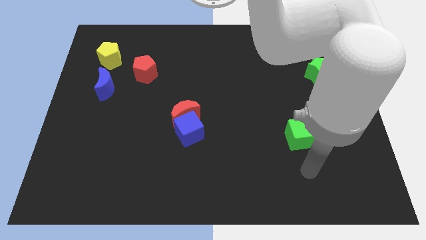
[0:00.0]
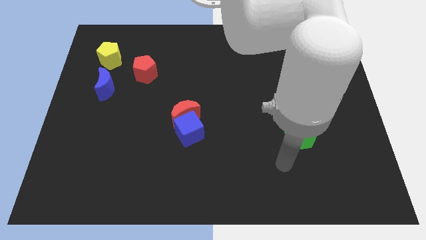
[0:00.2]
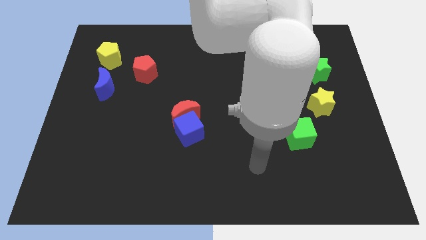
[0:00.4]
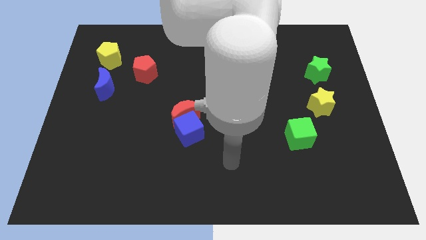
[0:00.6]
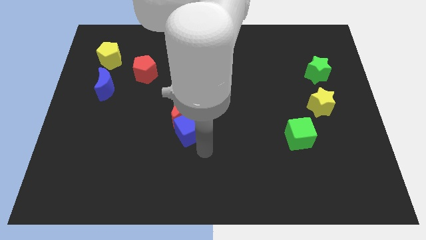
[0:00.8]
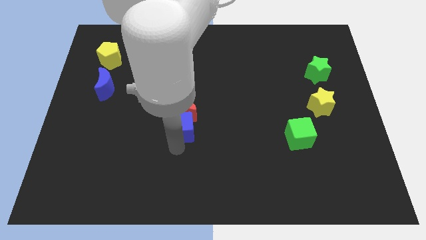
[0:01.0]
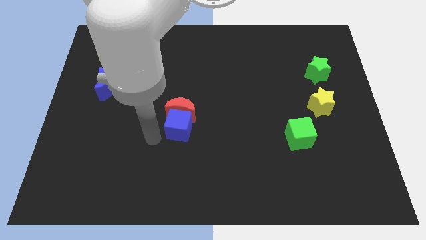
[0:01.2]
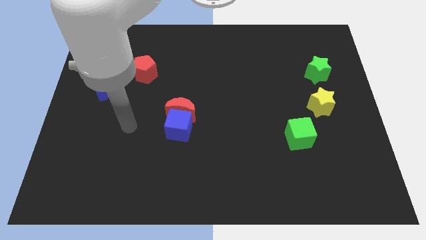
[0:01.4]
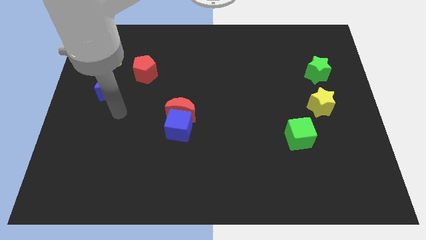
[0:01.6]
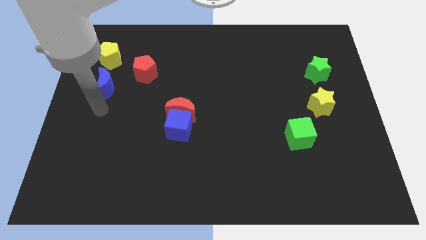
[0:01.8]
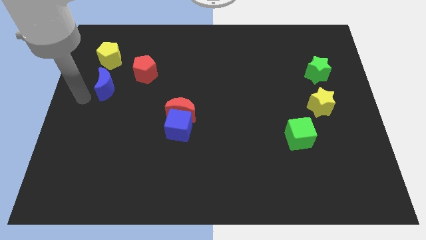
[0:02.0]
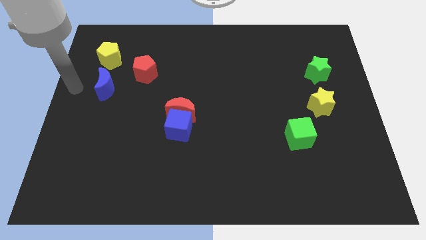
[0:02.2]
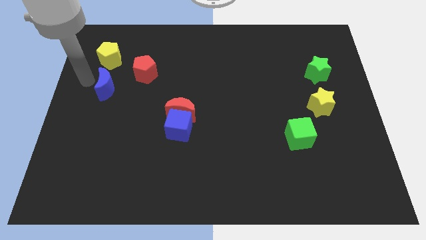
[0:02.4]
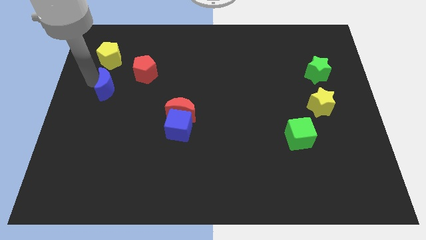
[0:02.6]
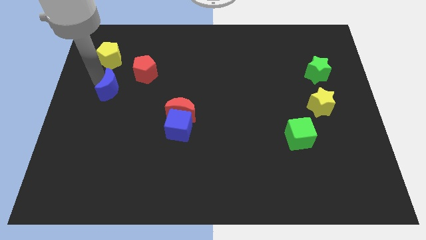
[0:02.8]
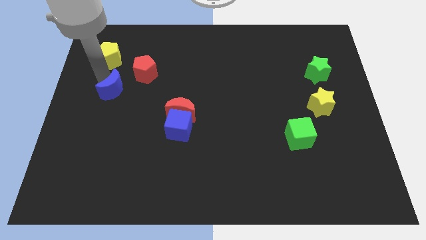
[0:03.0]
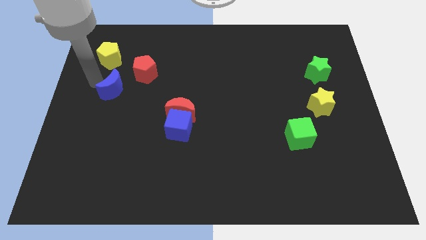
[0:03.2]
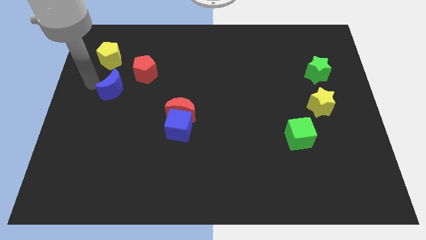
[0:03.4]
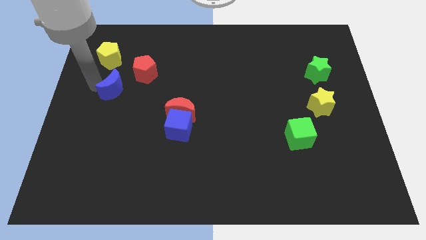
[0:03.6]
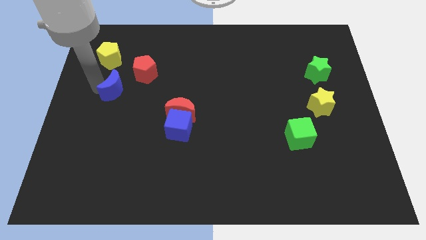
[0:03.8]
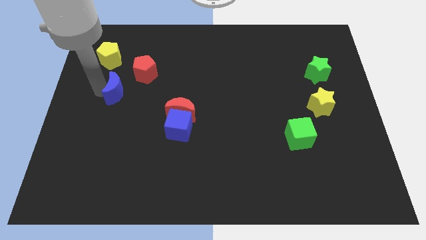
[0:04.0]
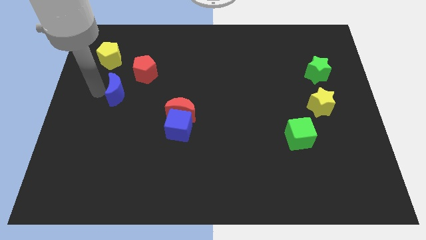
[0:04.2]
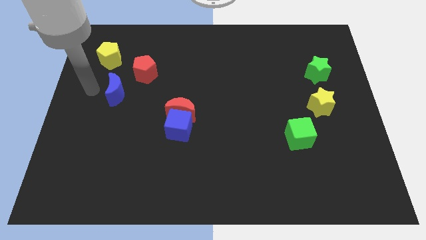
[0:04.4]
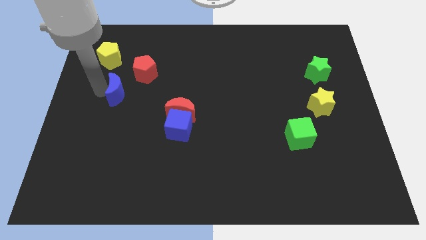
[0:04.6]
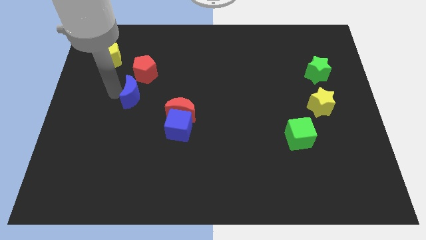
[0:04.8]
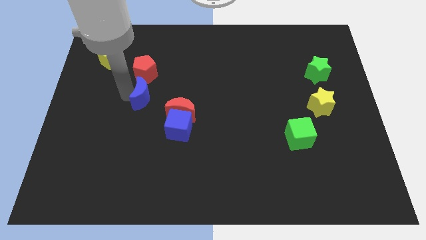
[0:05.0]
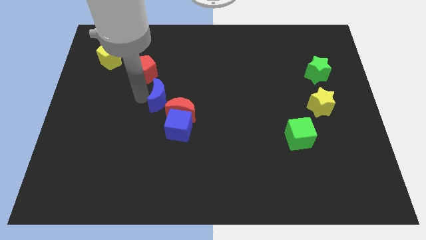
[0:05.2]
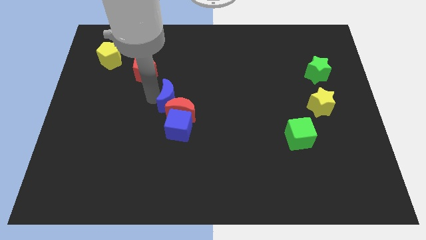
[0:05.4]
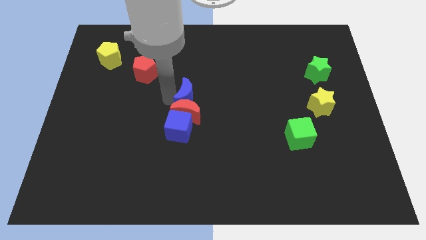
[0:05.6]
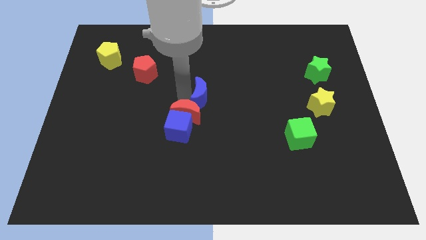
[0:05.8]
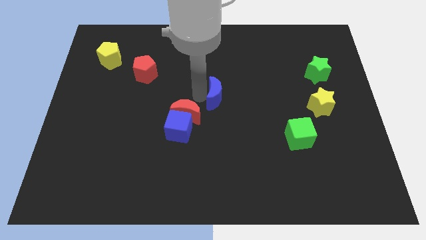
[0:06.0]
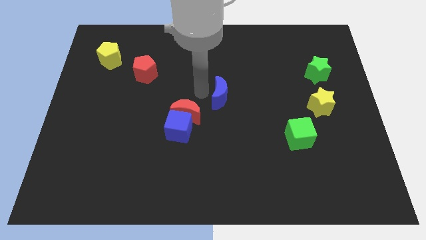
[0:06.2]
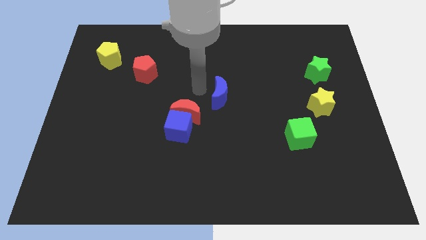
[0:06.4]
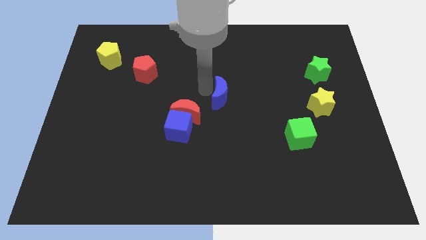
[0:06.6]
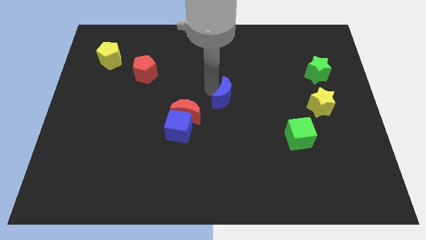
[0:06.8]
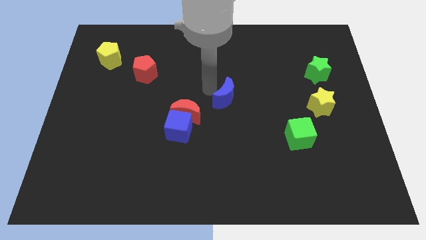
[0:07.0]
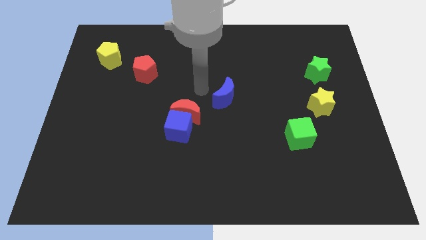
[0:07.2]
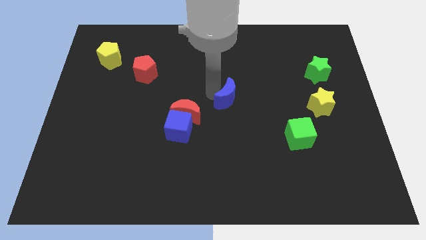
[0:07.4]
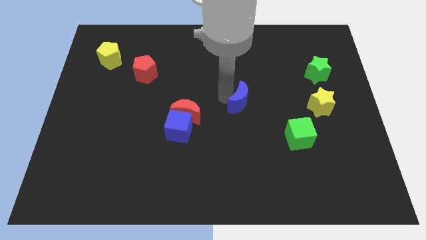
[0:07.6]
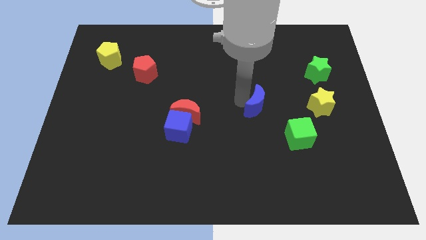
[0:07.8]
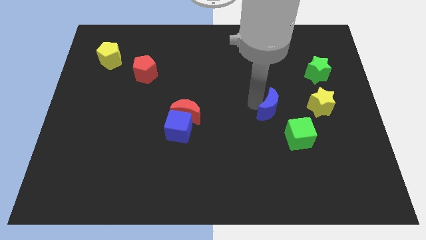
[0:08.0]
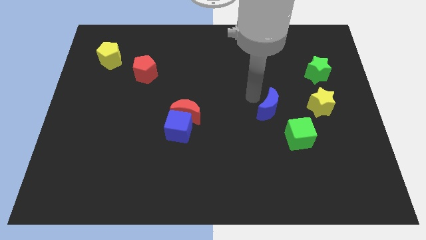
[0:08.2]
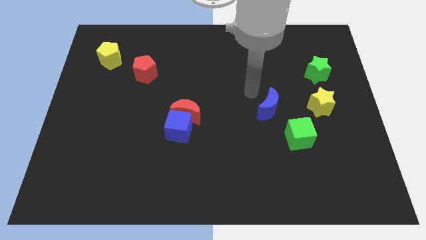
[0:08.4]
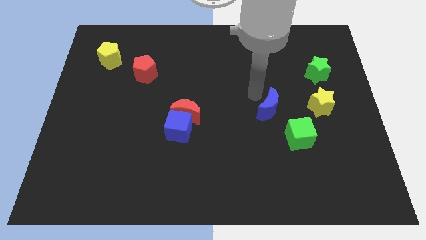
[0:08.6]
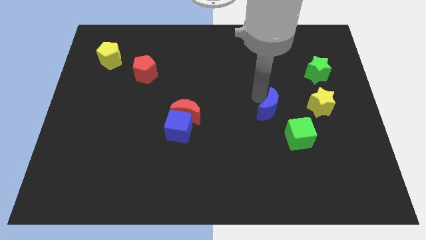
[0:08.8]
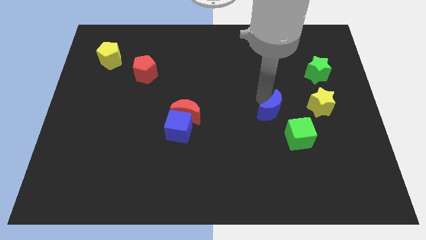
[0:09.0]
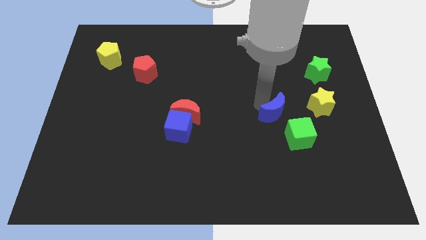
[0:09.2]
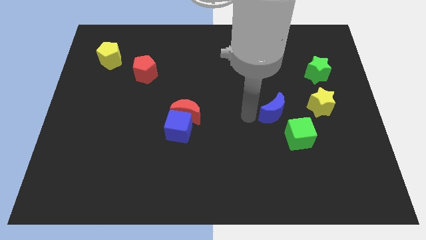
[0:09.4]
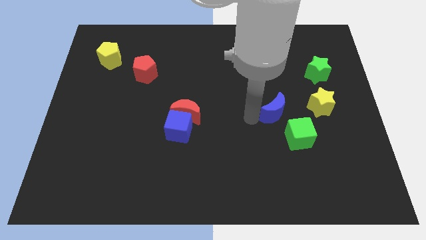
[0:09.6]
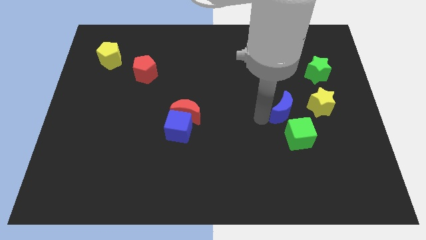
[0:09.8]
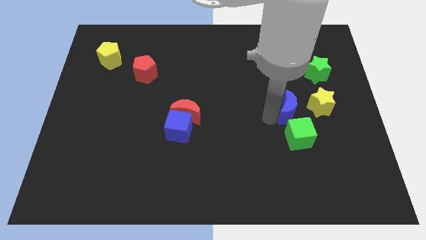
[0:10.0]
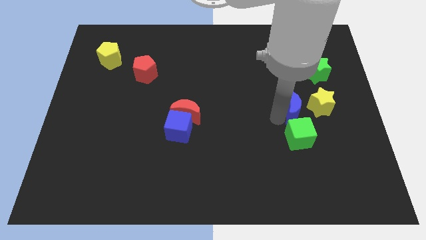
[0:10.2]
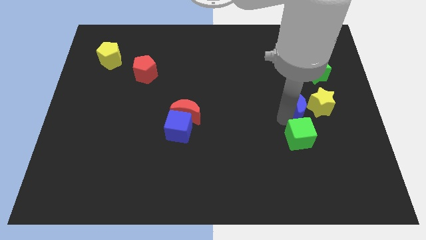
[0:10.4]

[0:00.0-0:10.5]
put the blue moon towards the yellow star

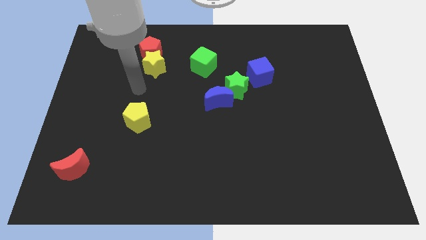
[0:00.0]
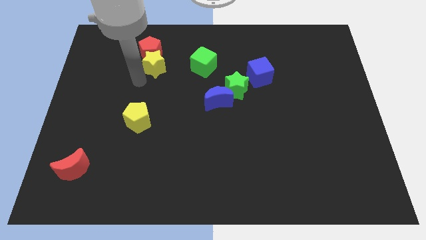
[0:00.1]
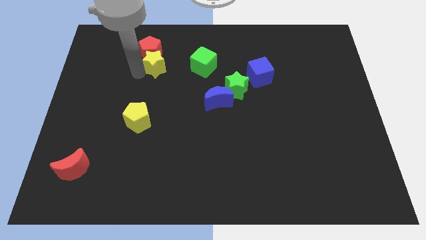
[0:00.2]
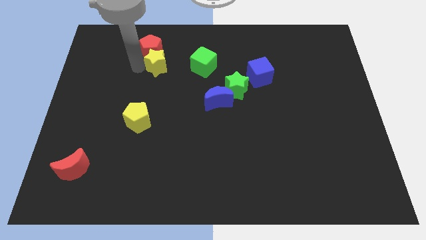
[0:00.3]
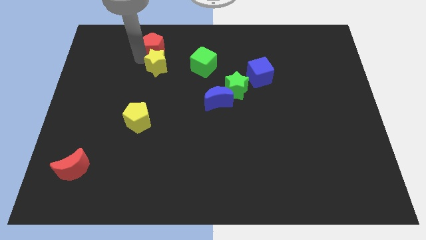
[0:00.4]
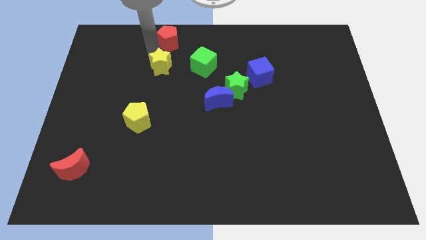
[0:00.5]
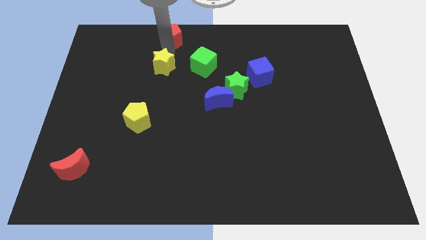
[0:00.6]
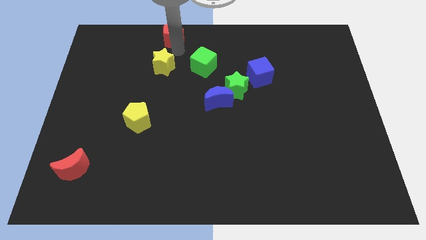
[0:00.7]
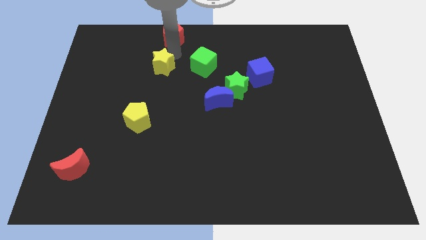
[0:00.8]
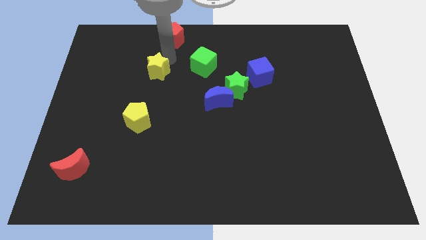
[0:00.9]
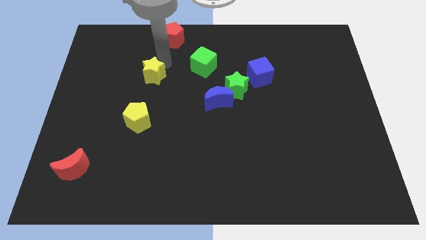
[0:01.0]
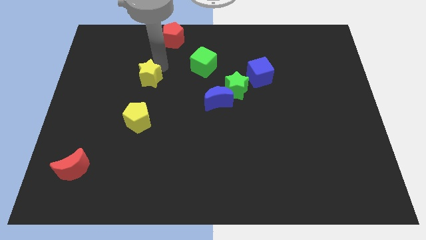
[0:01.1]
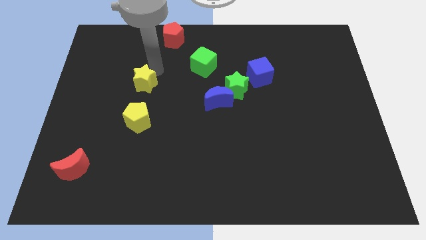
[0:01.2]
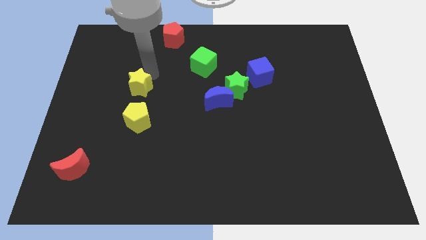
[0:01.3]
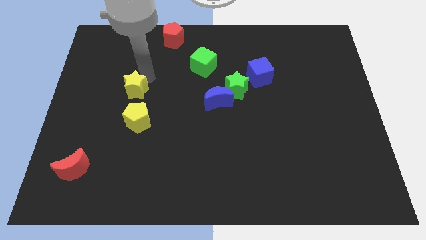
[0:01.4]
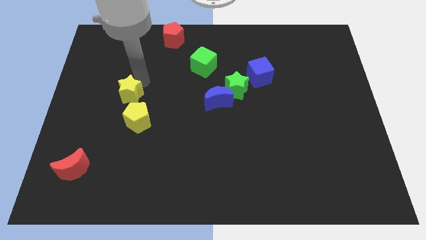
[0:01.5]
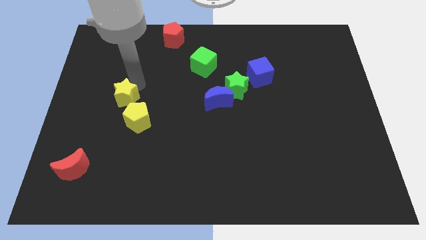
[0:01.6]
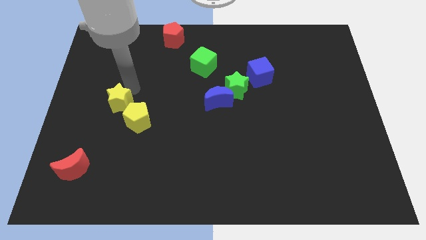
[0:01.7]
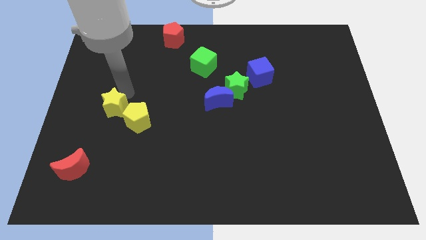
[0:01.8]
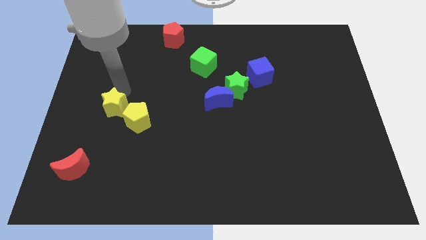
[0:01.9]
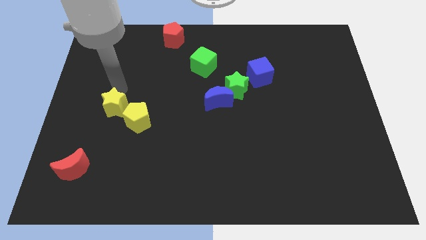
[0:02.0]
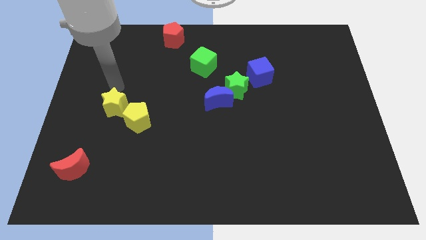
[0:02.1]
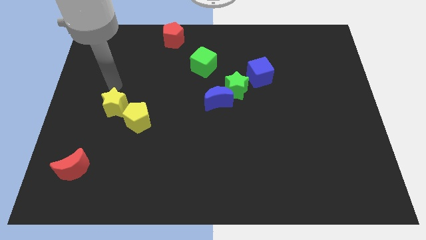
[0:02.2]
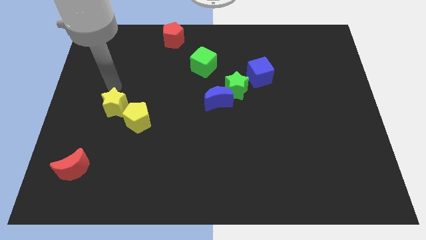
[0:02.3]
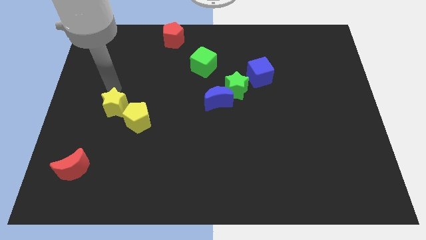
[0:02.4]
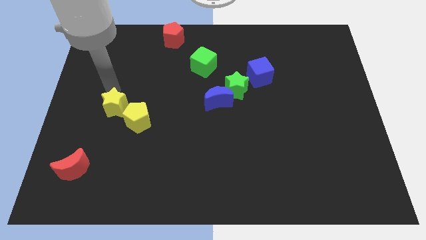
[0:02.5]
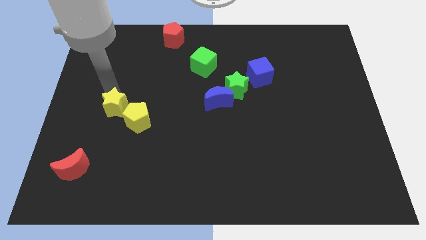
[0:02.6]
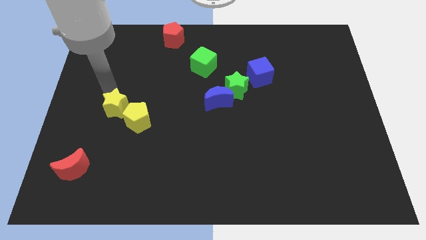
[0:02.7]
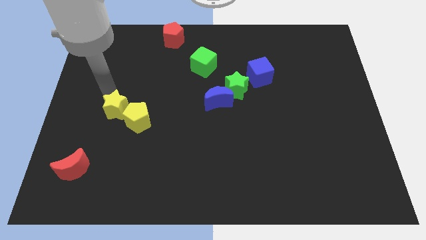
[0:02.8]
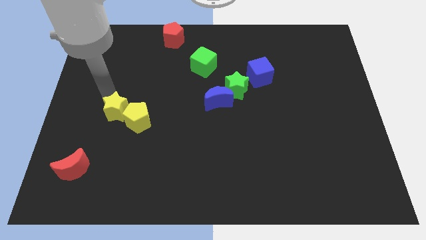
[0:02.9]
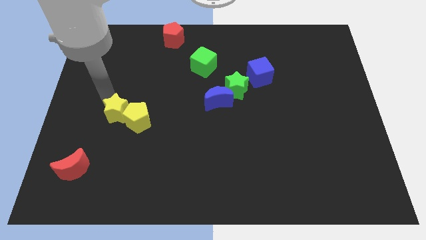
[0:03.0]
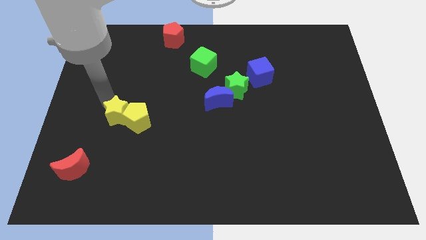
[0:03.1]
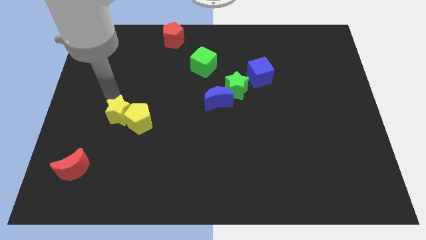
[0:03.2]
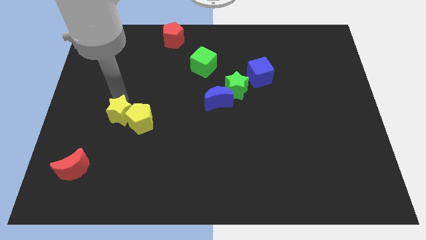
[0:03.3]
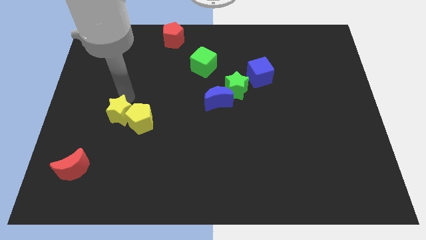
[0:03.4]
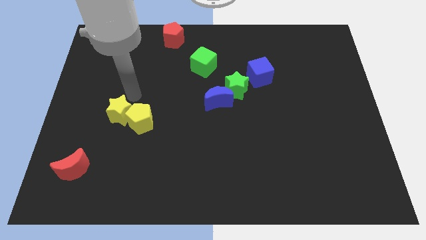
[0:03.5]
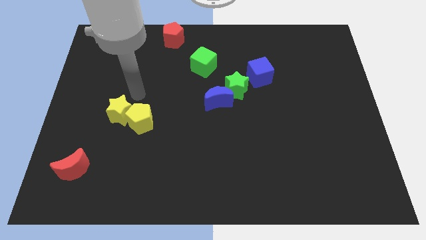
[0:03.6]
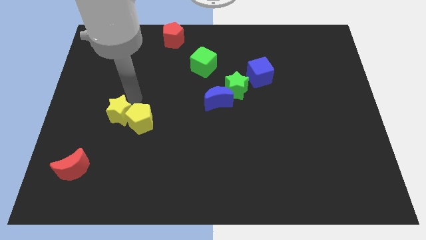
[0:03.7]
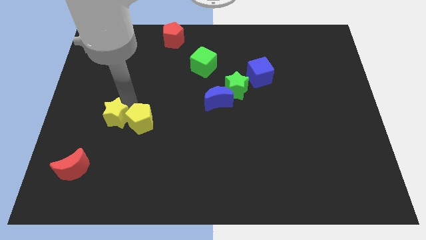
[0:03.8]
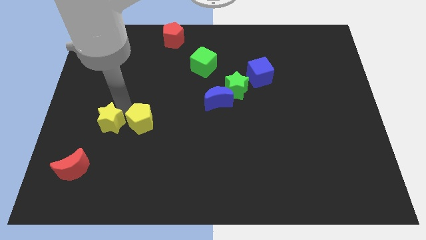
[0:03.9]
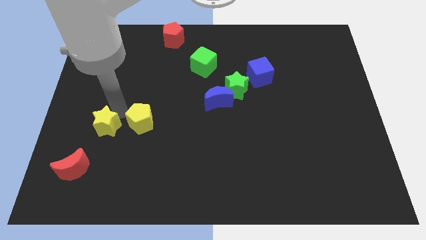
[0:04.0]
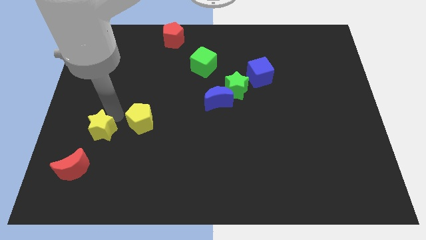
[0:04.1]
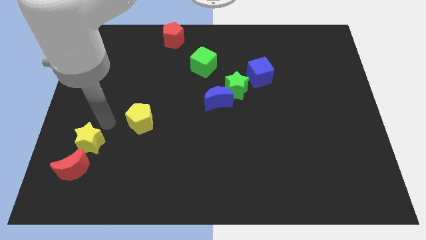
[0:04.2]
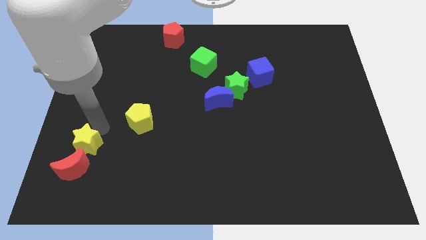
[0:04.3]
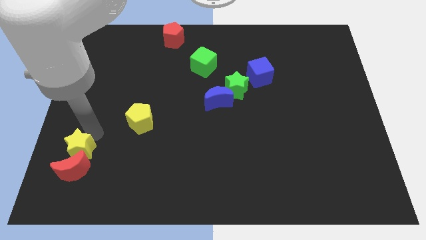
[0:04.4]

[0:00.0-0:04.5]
move the yellow star close to the red moon
